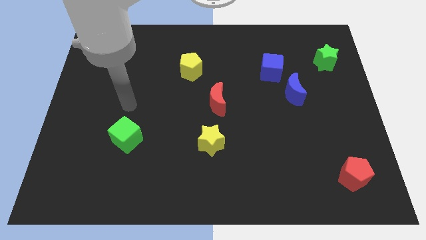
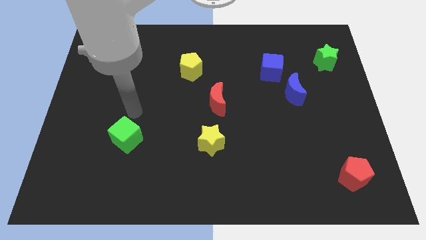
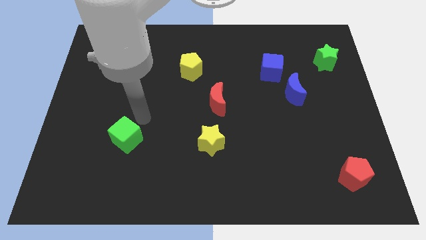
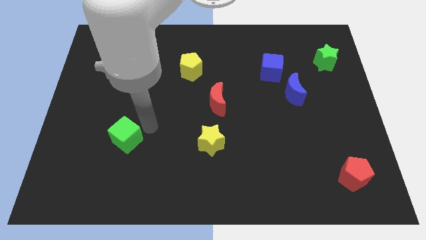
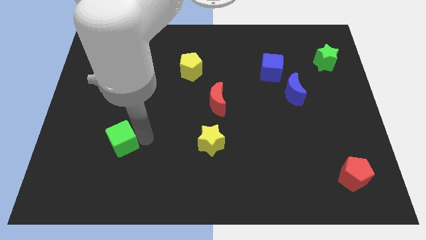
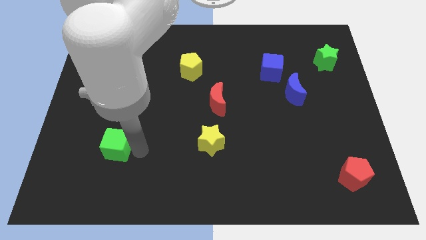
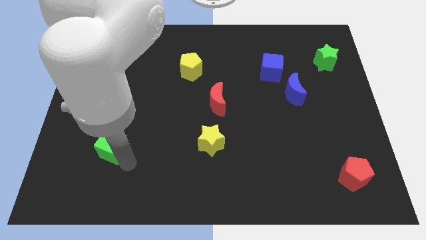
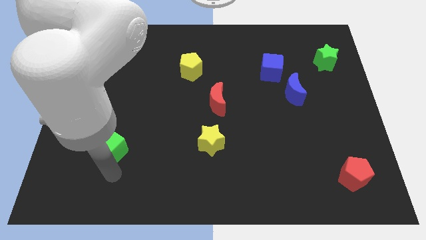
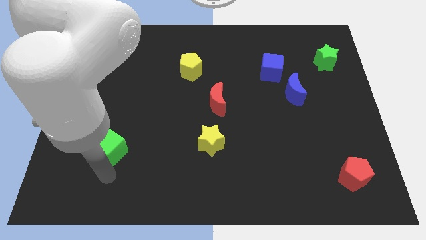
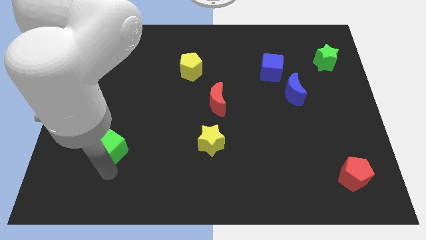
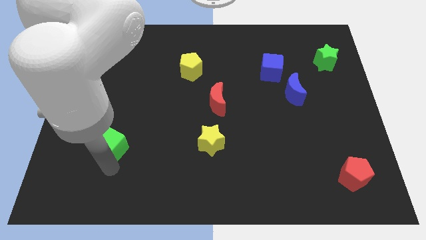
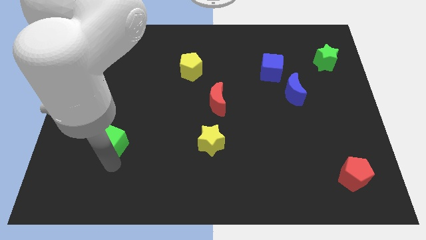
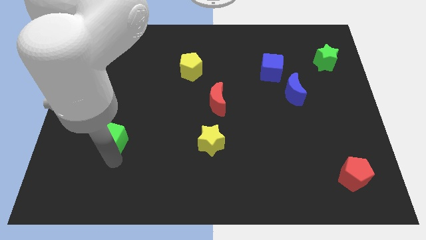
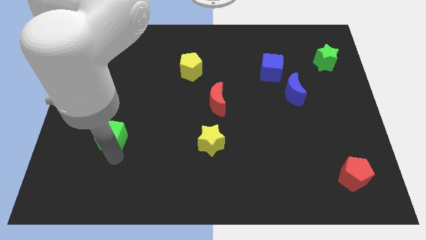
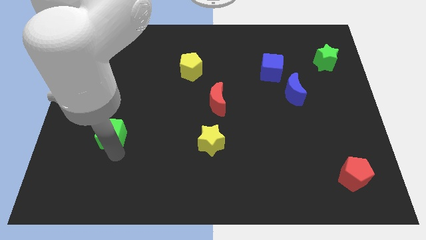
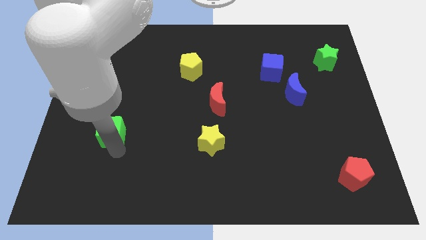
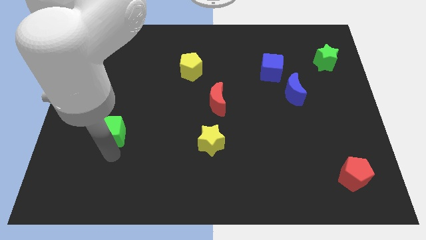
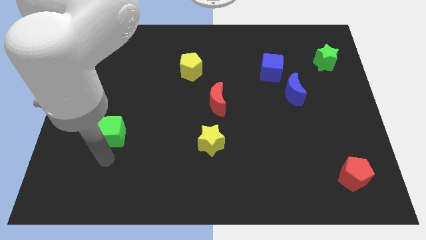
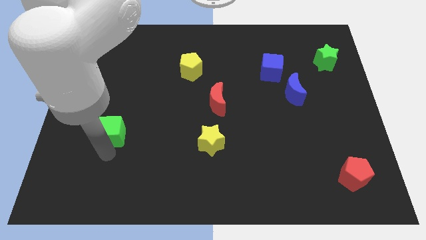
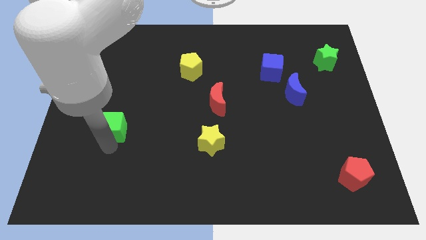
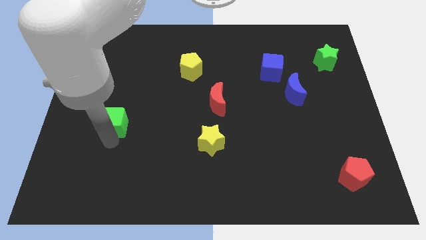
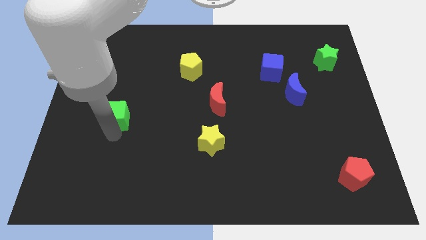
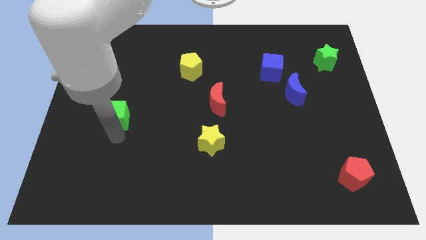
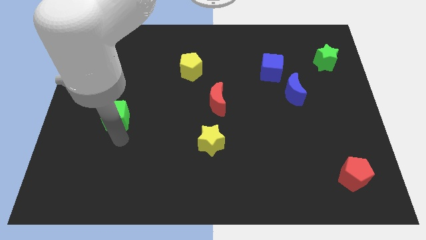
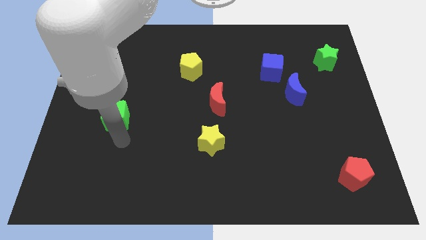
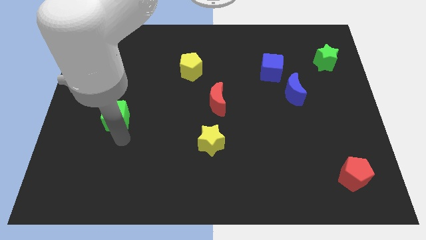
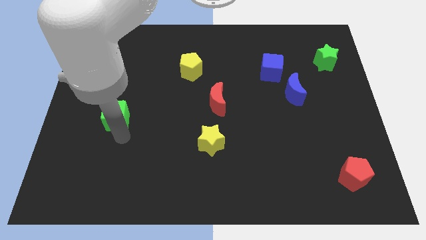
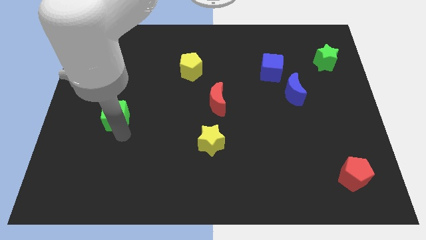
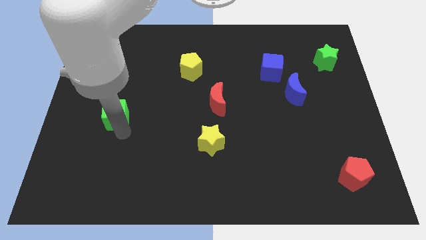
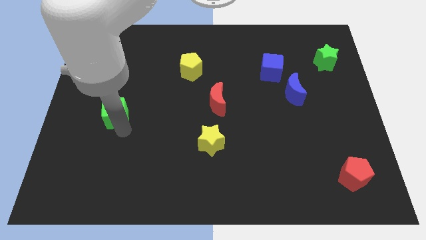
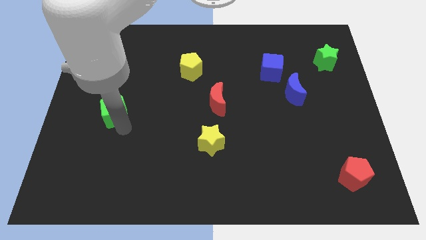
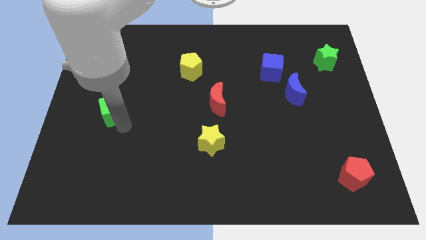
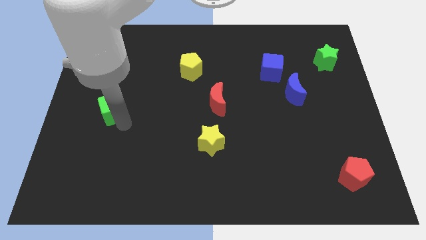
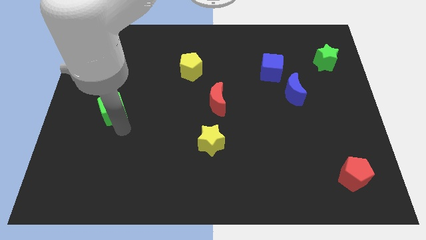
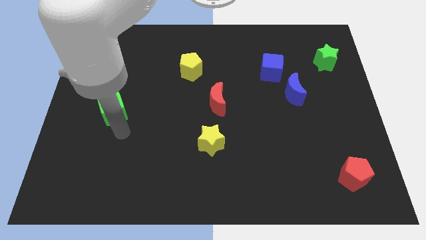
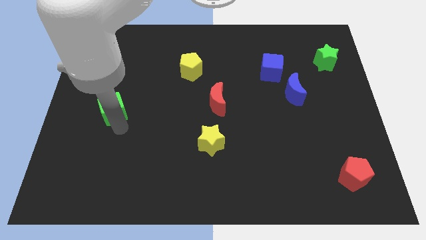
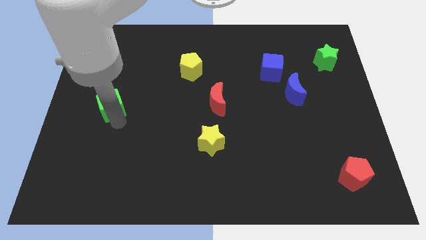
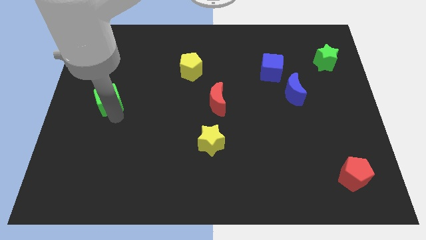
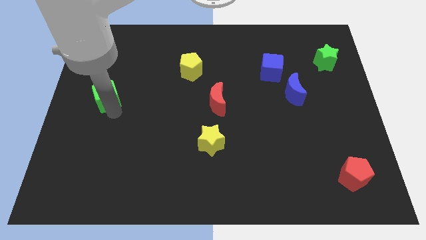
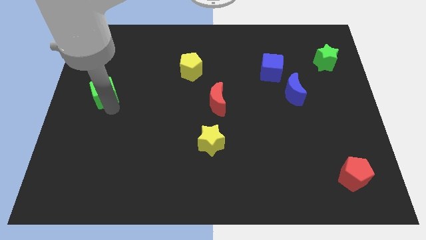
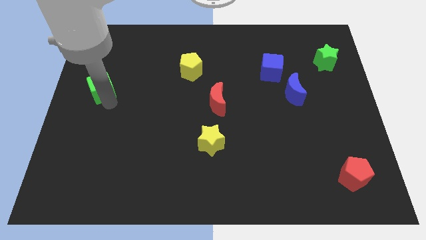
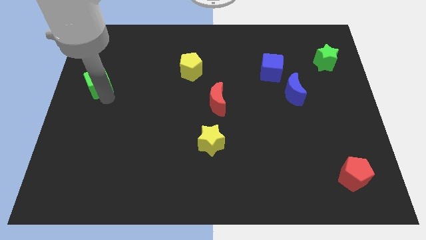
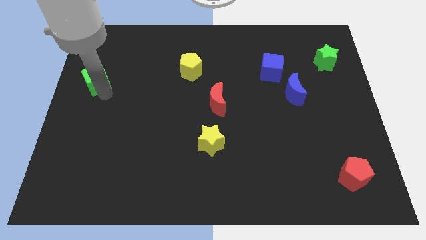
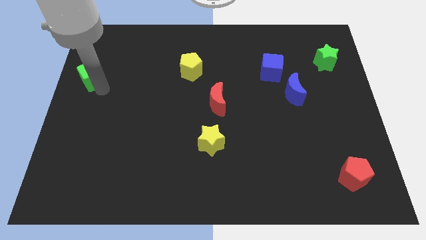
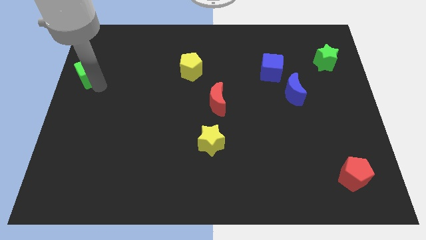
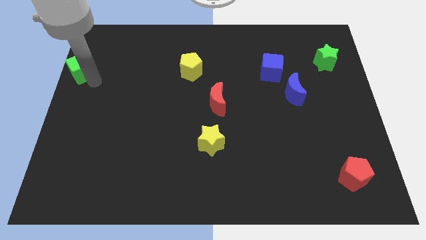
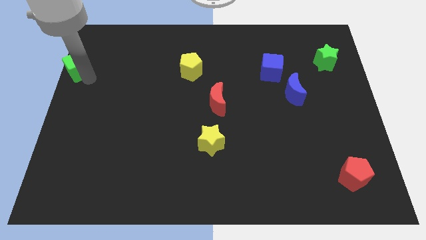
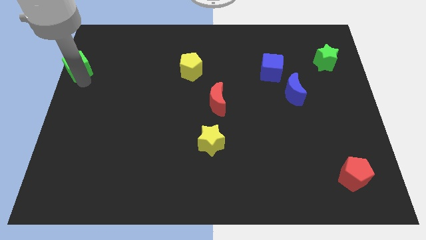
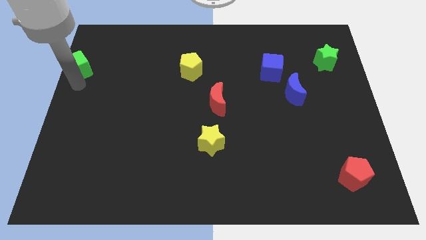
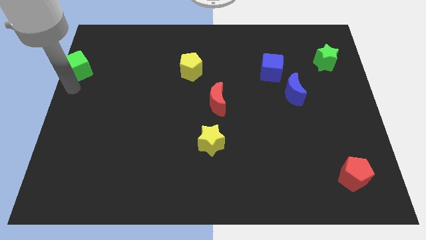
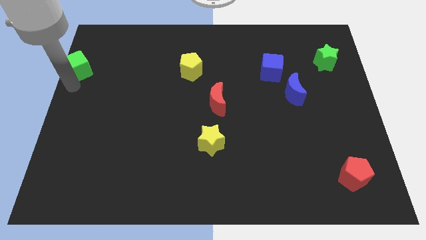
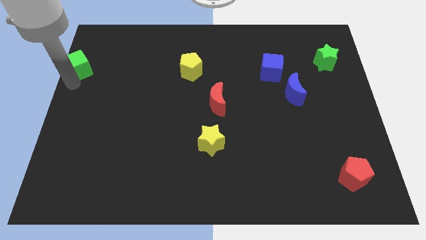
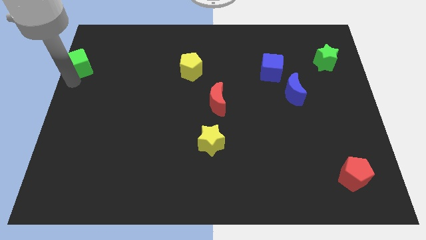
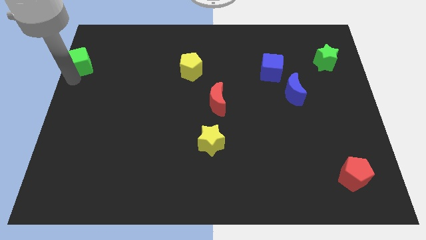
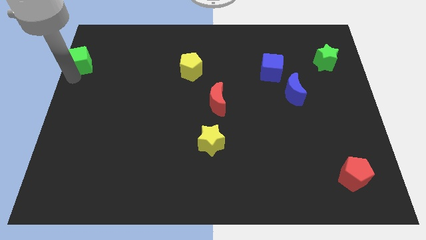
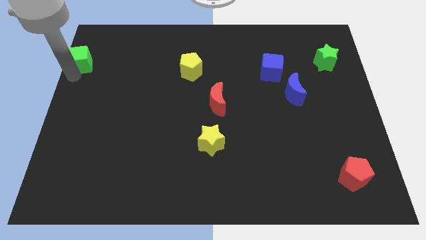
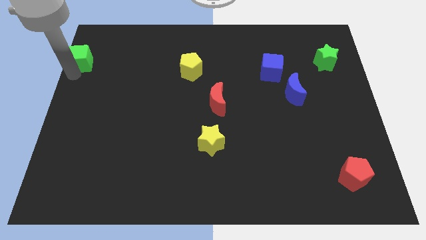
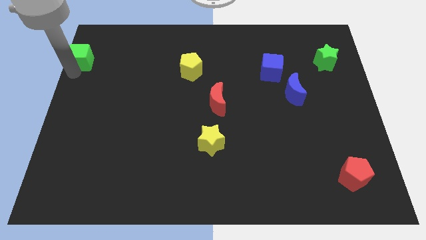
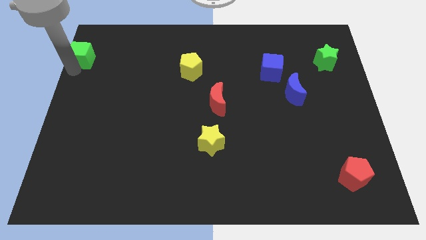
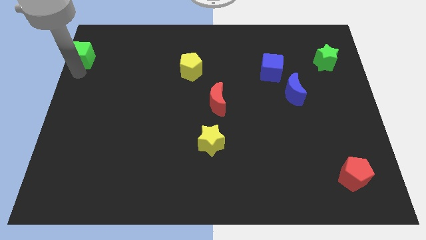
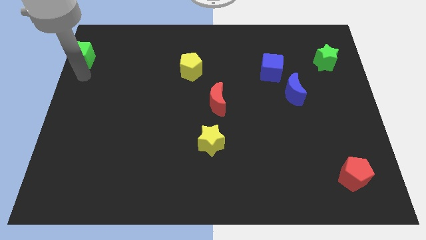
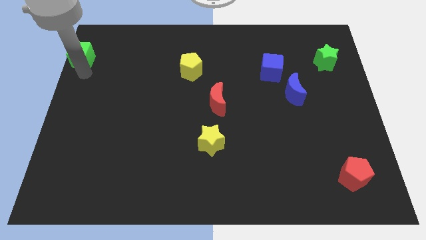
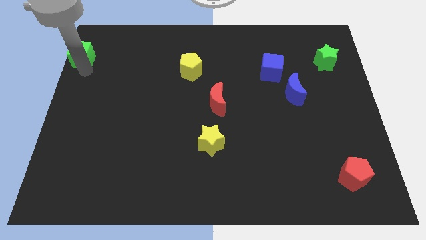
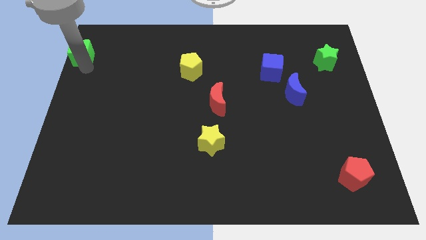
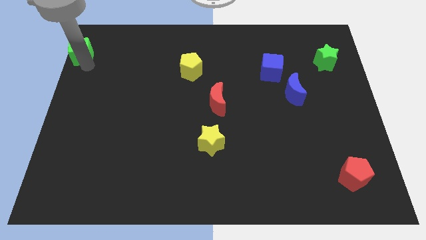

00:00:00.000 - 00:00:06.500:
put the green cube to the upper left corner
